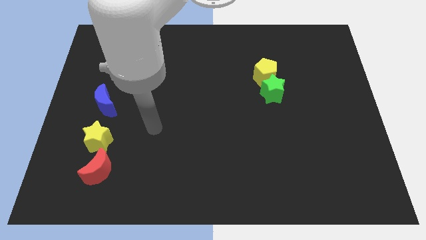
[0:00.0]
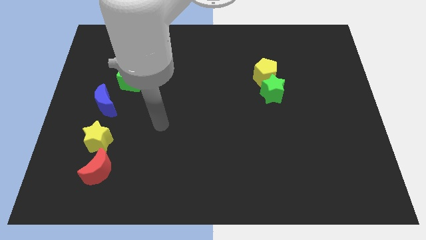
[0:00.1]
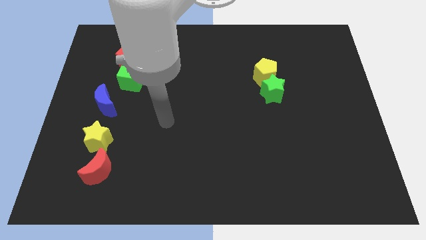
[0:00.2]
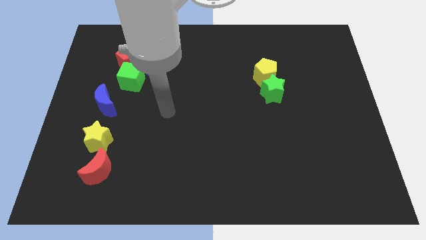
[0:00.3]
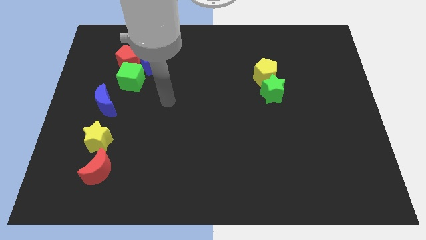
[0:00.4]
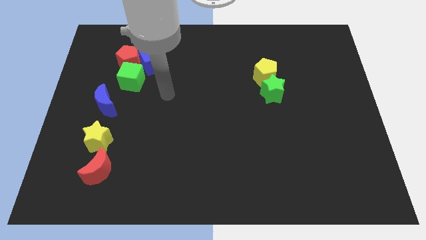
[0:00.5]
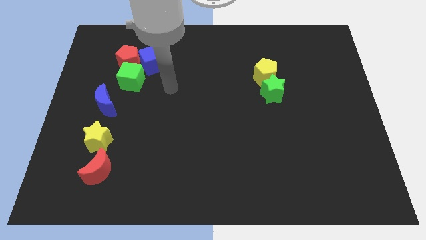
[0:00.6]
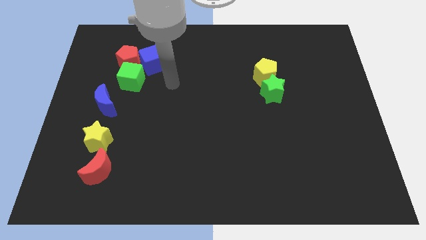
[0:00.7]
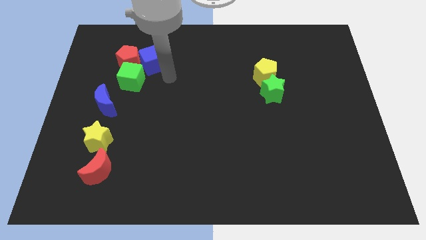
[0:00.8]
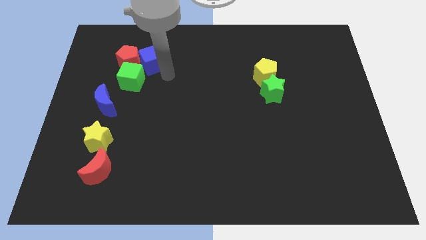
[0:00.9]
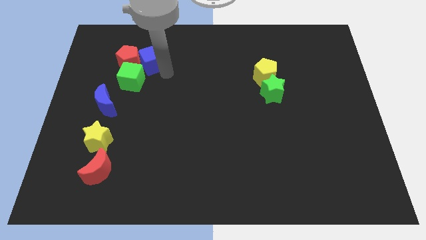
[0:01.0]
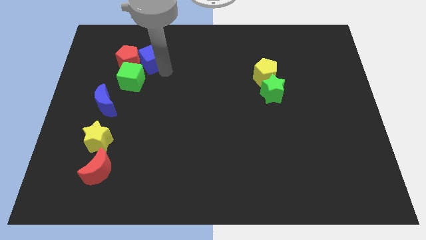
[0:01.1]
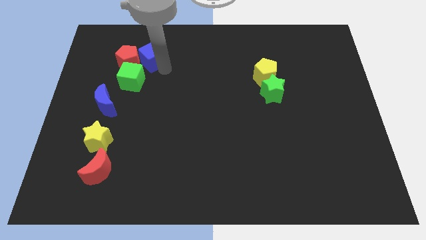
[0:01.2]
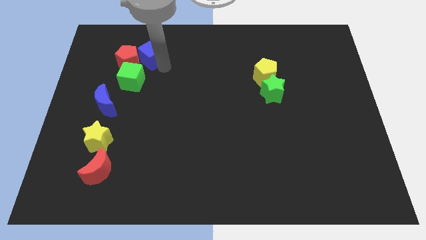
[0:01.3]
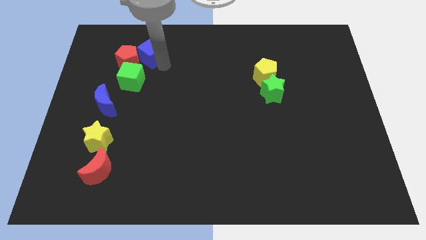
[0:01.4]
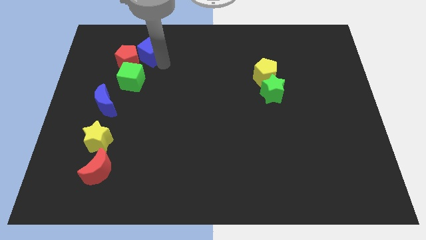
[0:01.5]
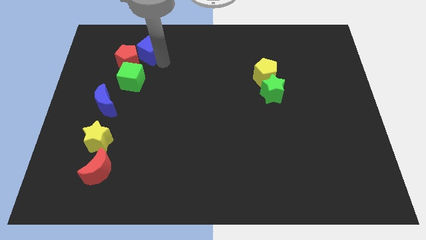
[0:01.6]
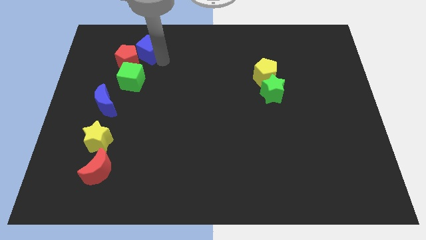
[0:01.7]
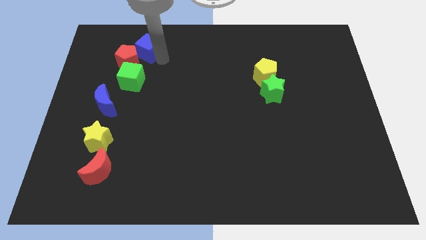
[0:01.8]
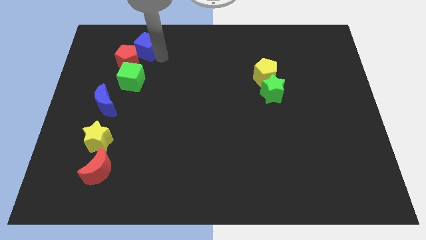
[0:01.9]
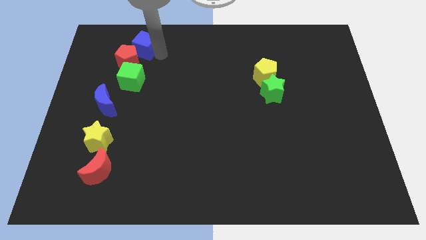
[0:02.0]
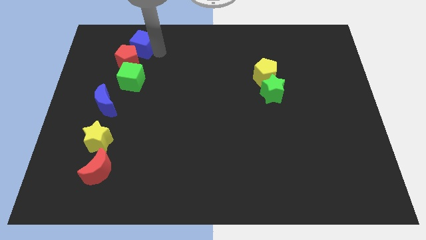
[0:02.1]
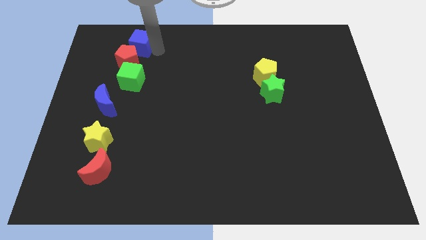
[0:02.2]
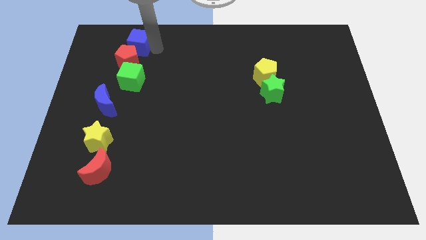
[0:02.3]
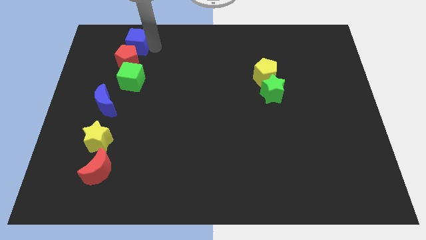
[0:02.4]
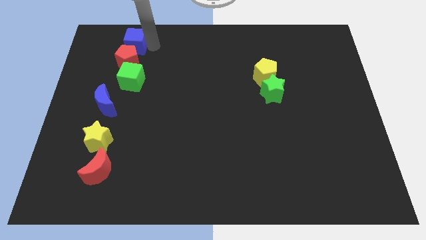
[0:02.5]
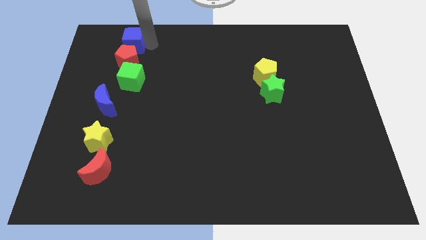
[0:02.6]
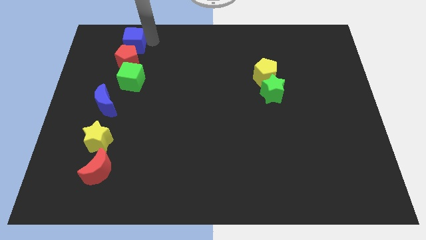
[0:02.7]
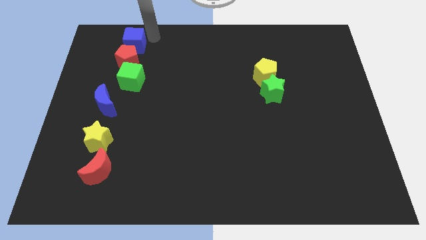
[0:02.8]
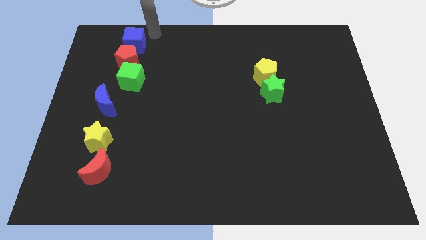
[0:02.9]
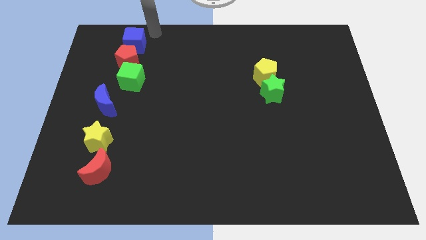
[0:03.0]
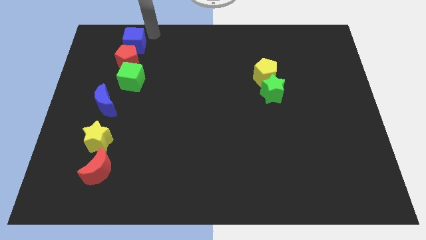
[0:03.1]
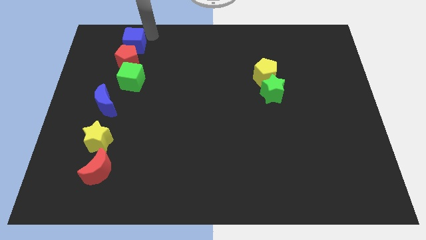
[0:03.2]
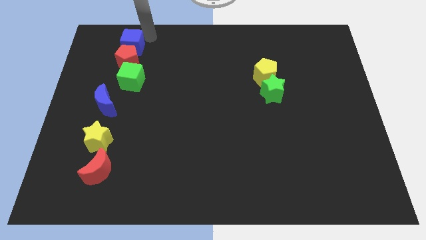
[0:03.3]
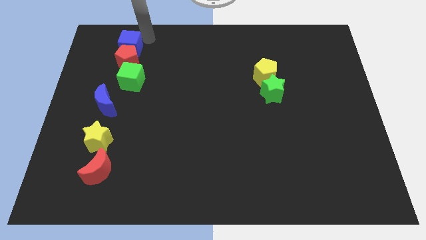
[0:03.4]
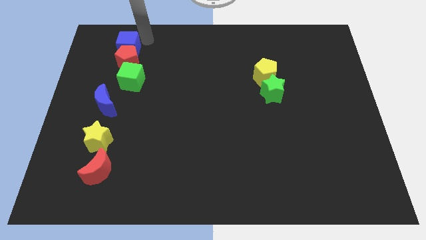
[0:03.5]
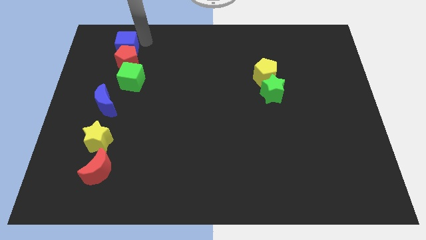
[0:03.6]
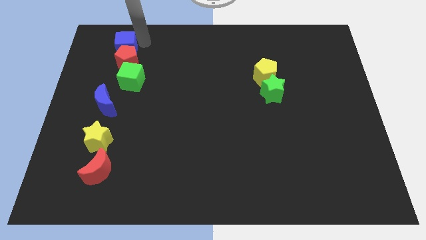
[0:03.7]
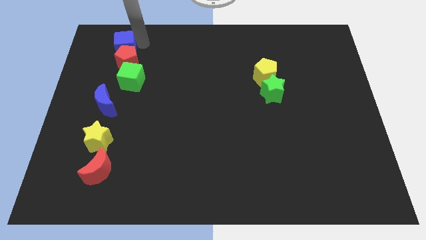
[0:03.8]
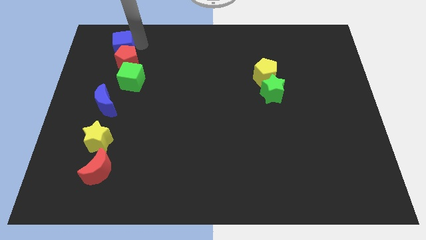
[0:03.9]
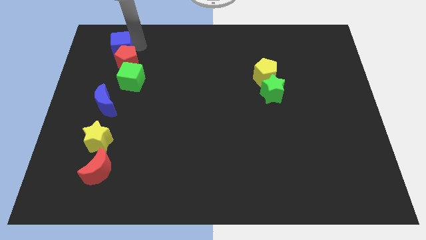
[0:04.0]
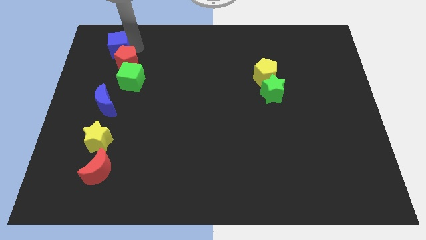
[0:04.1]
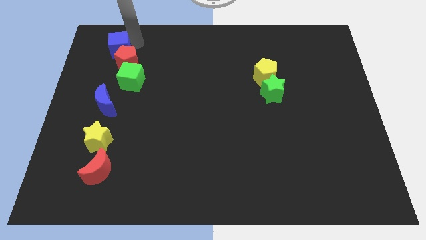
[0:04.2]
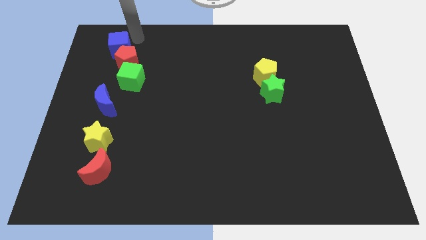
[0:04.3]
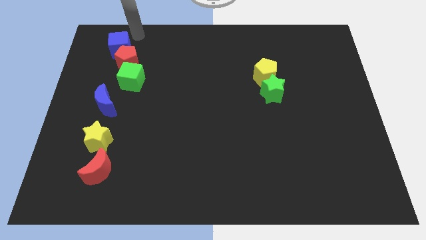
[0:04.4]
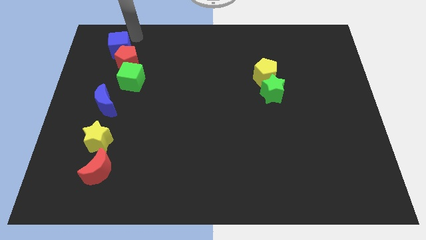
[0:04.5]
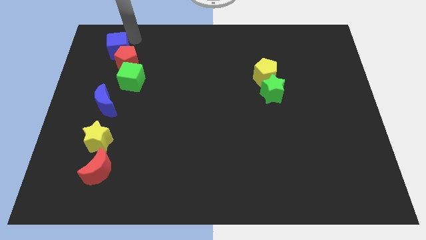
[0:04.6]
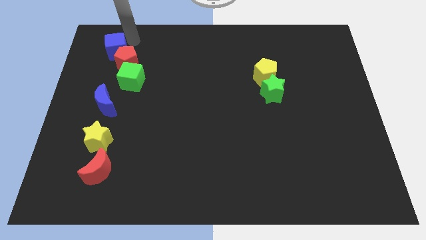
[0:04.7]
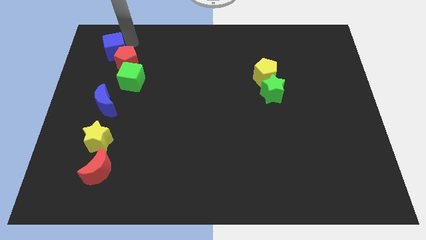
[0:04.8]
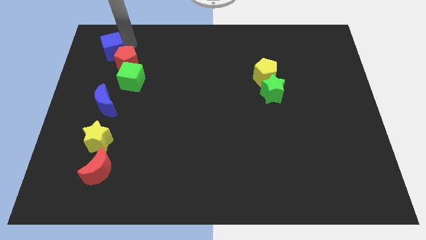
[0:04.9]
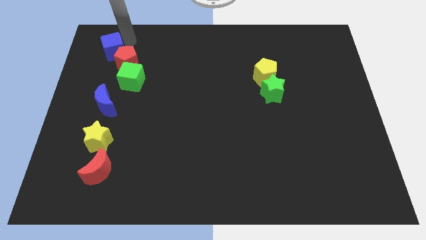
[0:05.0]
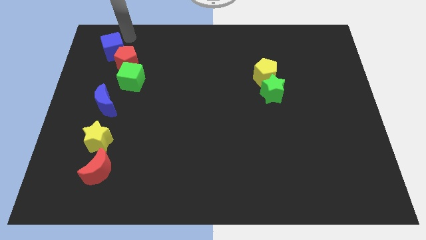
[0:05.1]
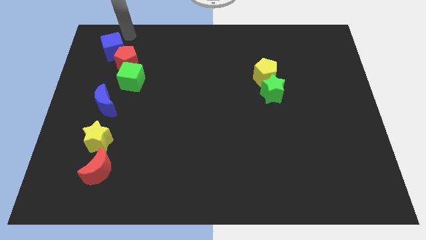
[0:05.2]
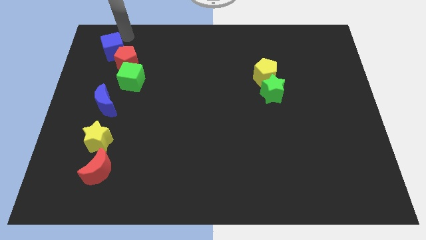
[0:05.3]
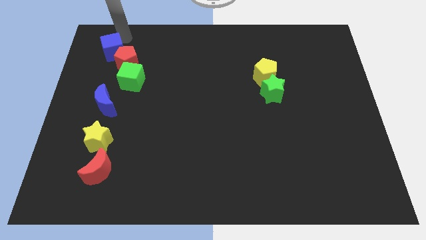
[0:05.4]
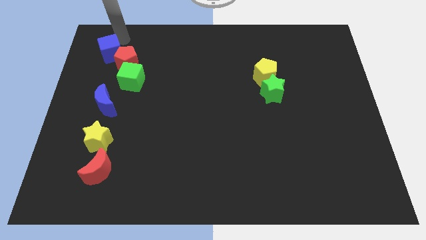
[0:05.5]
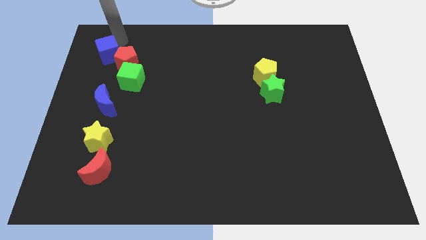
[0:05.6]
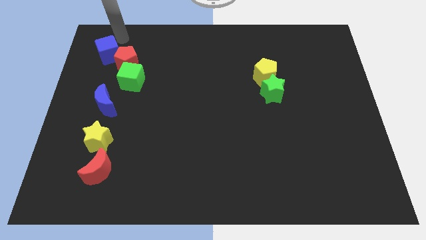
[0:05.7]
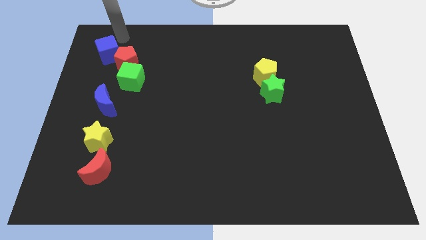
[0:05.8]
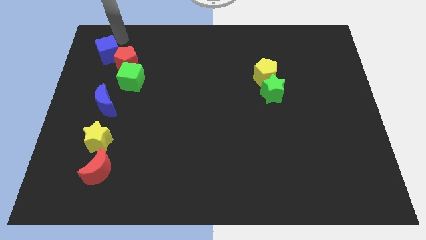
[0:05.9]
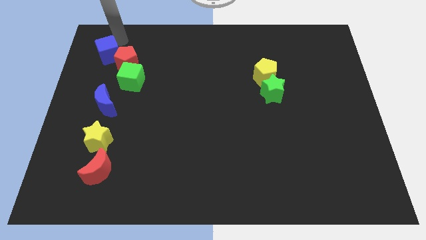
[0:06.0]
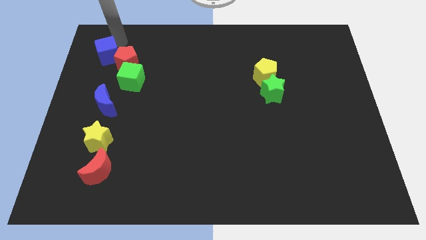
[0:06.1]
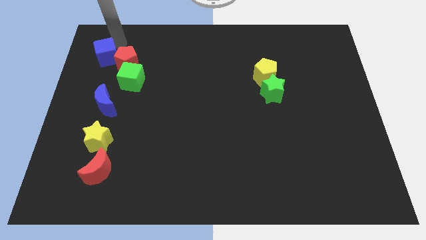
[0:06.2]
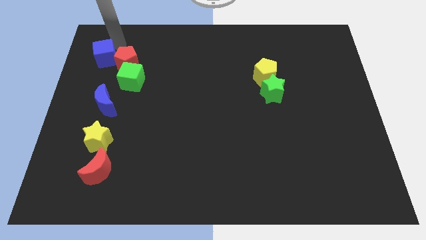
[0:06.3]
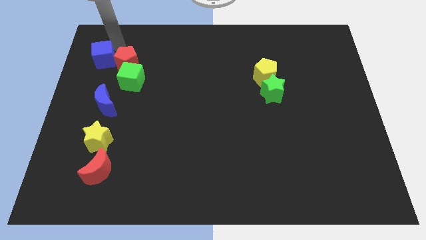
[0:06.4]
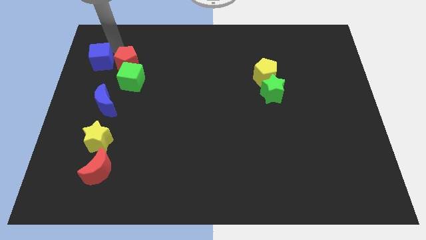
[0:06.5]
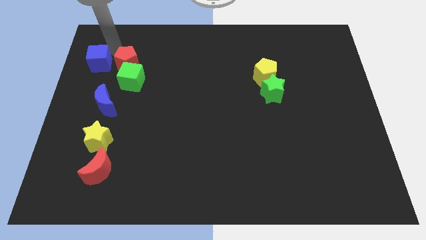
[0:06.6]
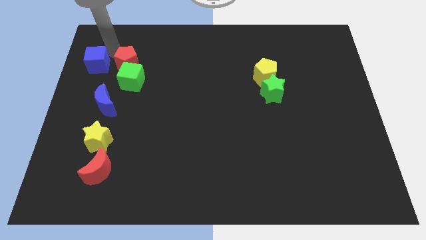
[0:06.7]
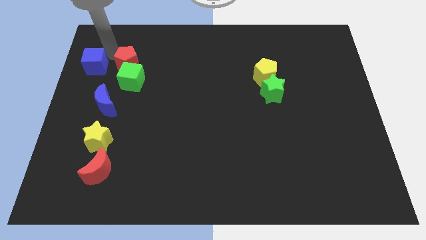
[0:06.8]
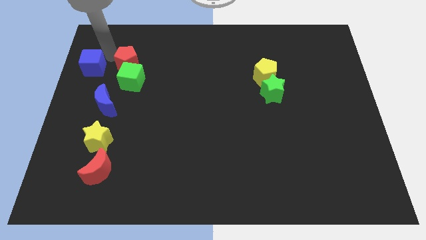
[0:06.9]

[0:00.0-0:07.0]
put the blue cube to the left side of the board
